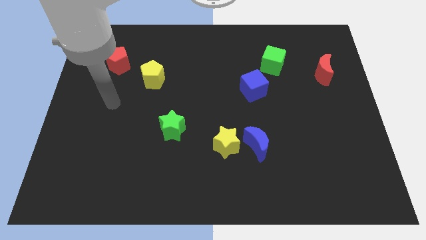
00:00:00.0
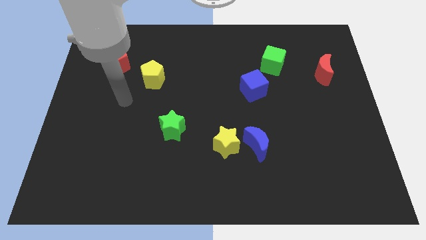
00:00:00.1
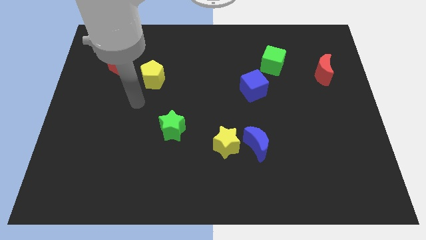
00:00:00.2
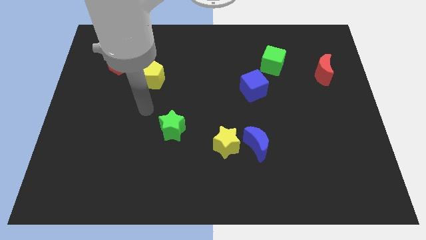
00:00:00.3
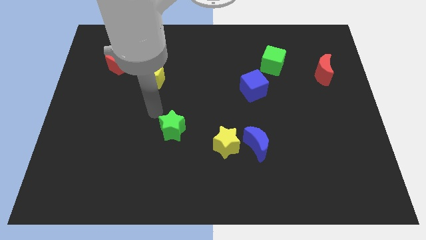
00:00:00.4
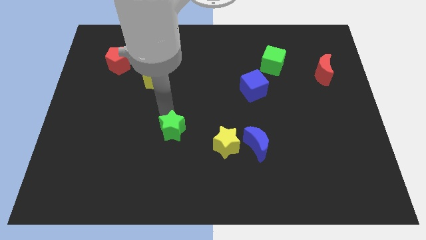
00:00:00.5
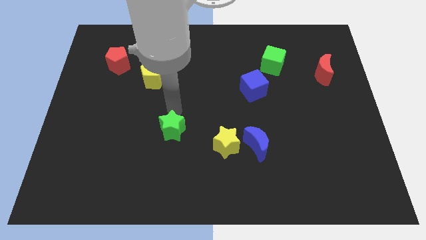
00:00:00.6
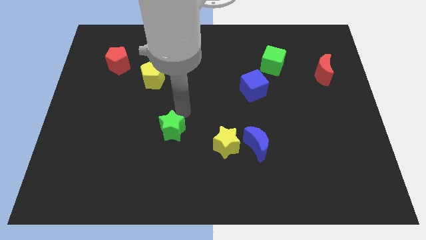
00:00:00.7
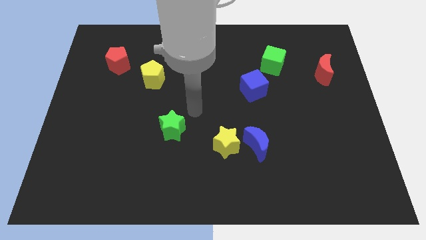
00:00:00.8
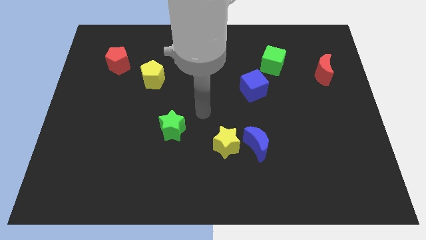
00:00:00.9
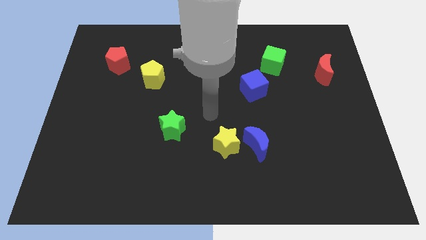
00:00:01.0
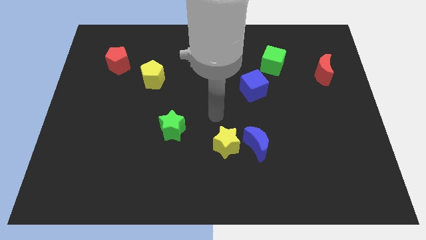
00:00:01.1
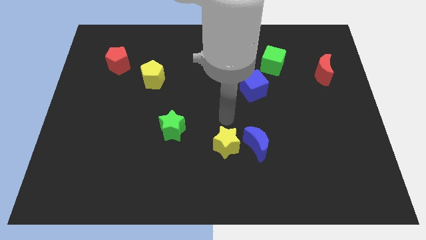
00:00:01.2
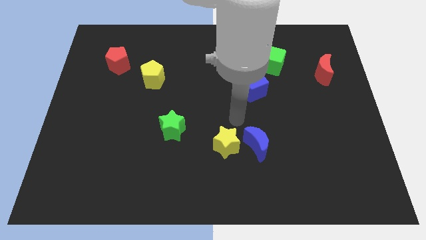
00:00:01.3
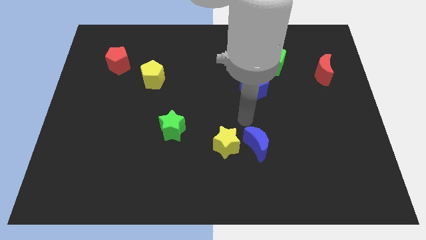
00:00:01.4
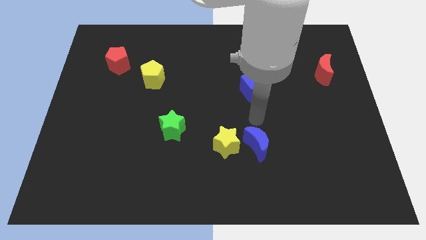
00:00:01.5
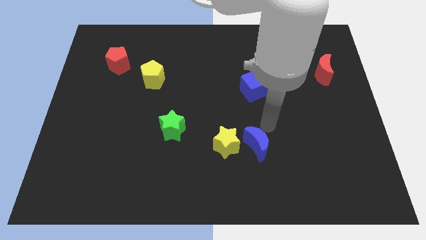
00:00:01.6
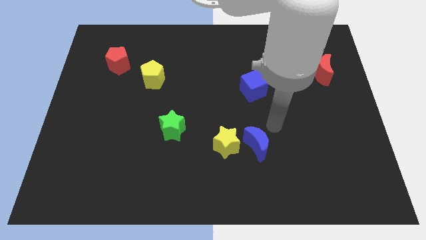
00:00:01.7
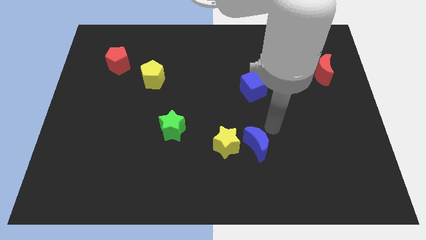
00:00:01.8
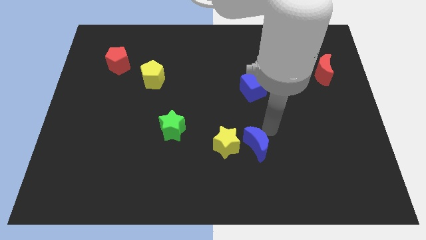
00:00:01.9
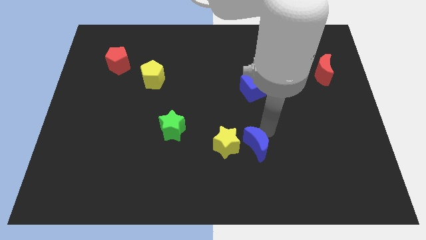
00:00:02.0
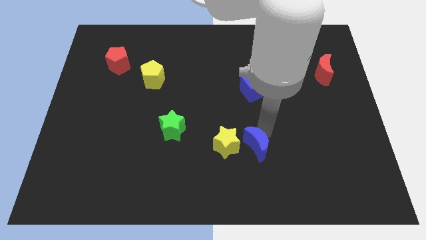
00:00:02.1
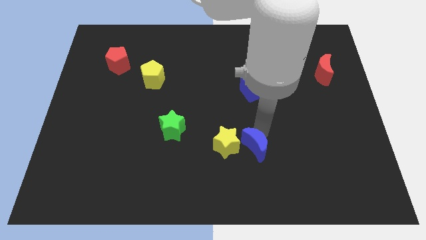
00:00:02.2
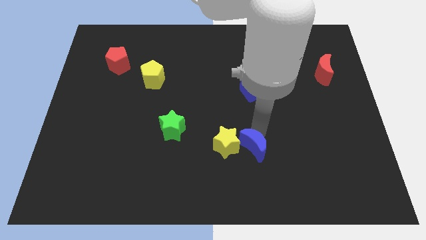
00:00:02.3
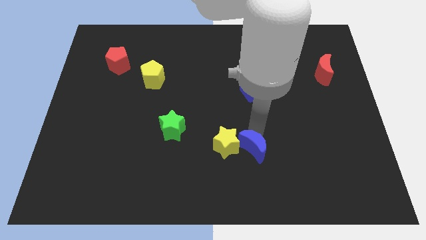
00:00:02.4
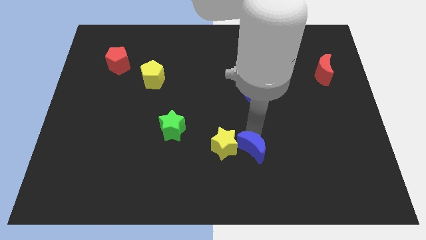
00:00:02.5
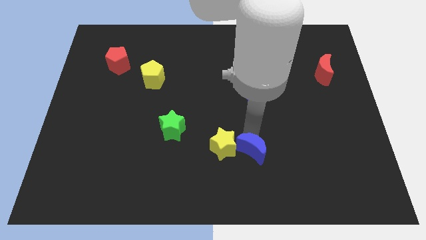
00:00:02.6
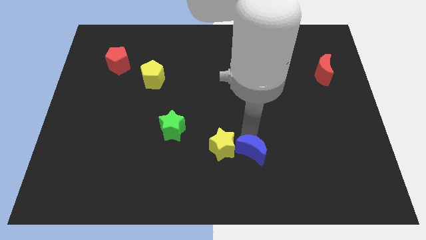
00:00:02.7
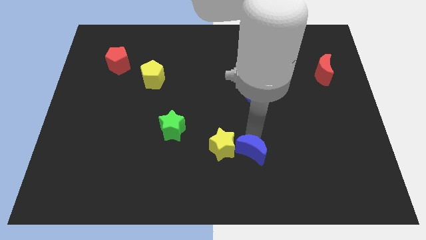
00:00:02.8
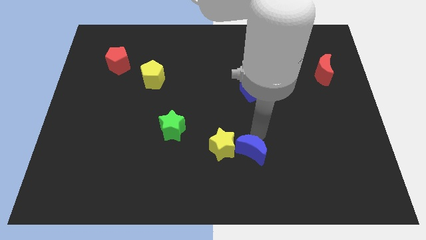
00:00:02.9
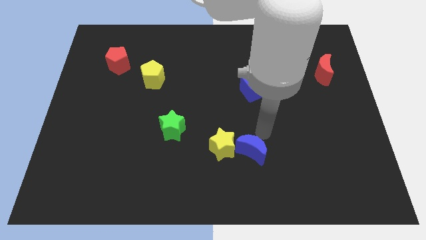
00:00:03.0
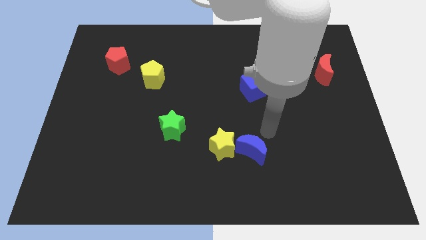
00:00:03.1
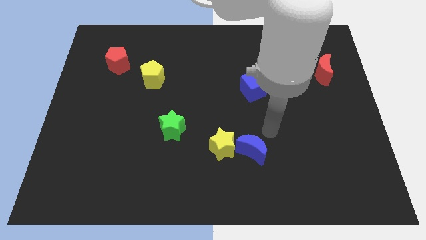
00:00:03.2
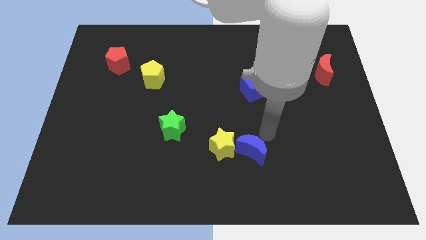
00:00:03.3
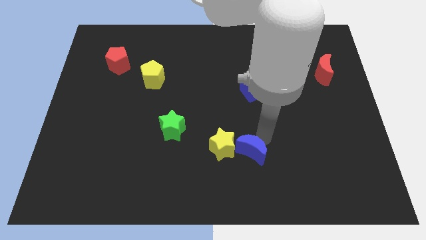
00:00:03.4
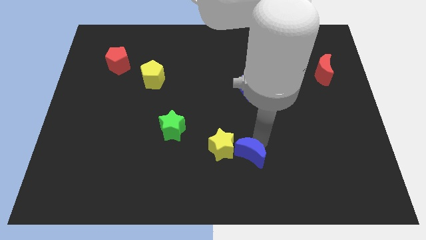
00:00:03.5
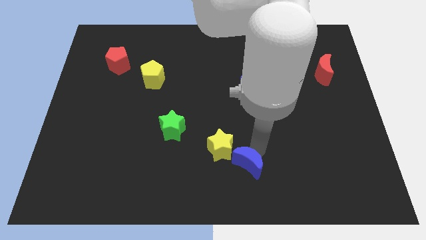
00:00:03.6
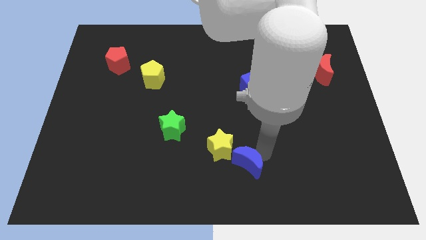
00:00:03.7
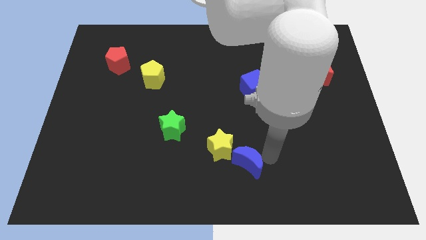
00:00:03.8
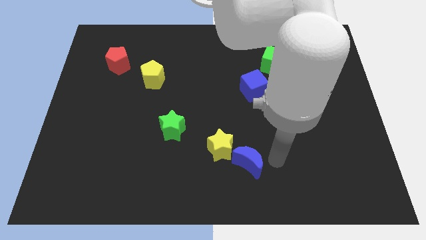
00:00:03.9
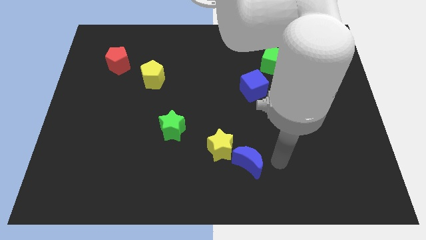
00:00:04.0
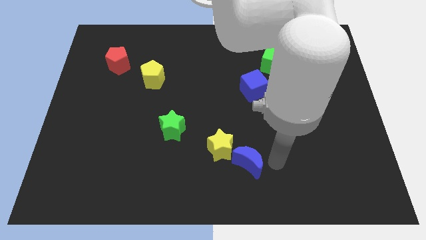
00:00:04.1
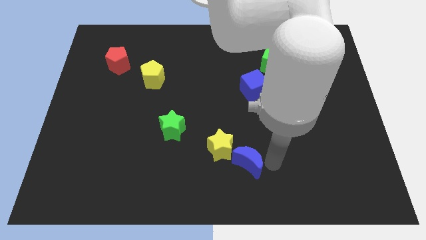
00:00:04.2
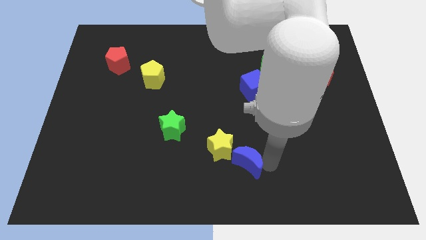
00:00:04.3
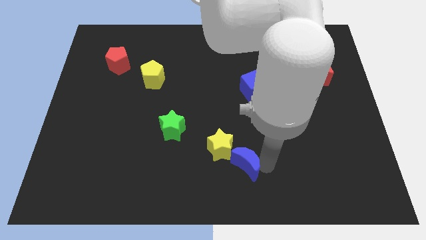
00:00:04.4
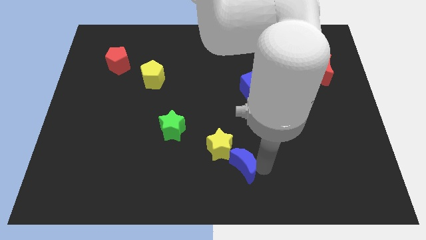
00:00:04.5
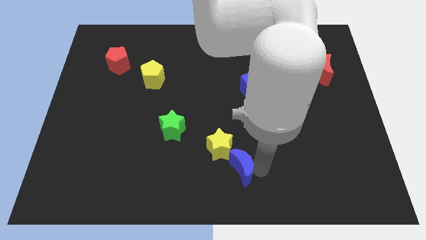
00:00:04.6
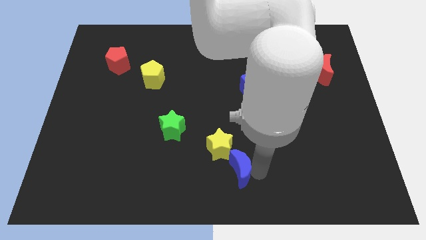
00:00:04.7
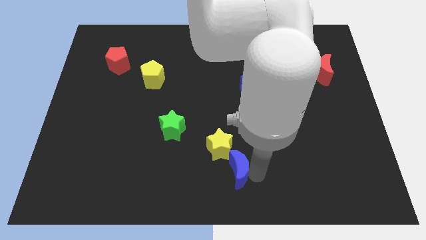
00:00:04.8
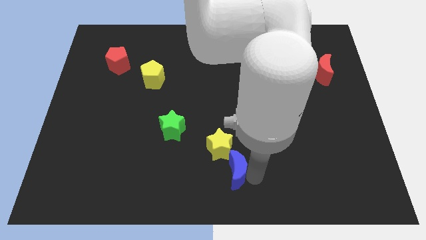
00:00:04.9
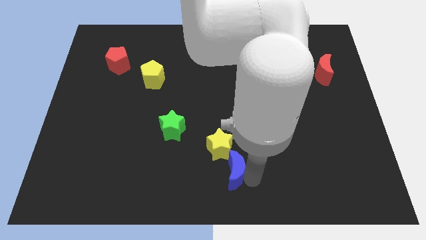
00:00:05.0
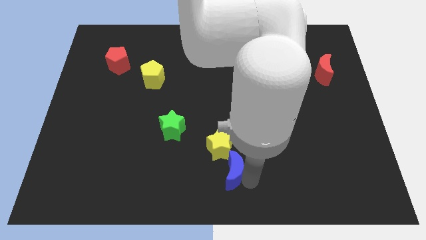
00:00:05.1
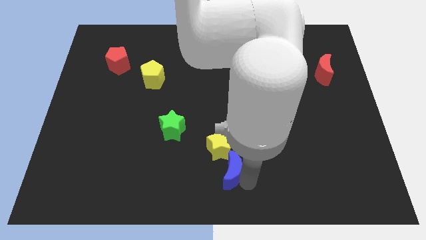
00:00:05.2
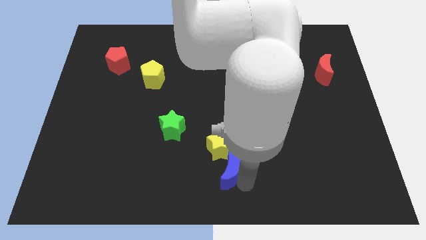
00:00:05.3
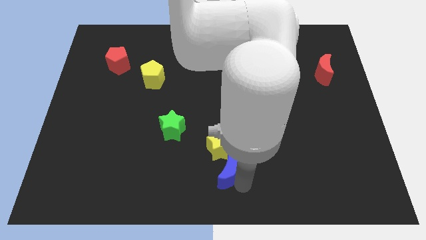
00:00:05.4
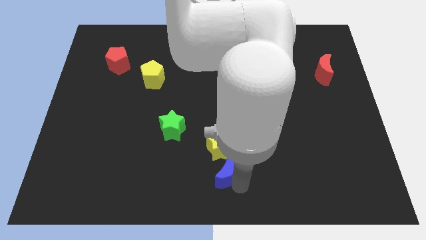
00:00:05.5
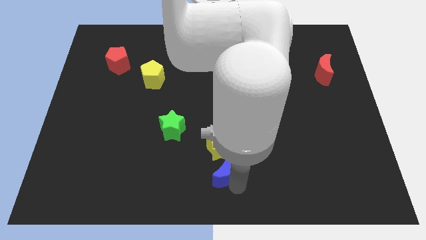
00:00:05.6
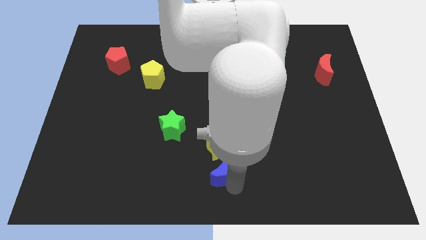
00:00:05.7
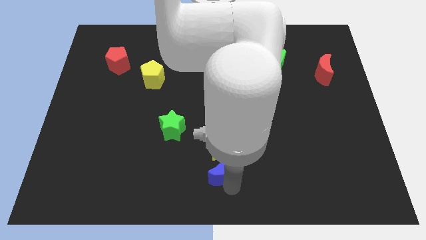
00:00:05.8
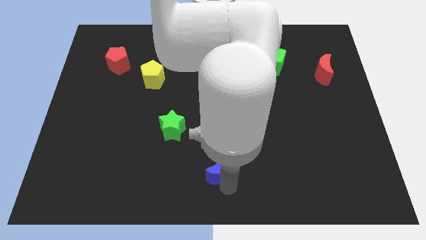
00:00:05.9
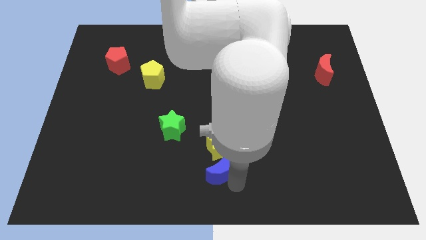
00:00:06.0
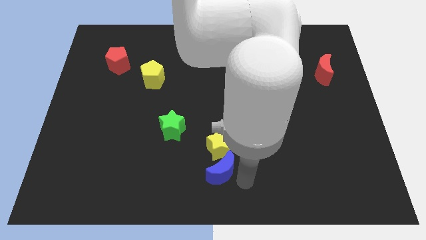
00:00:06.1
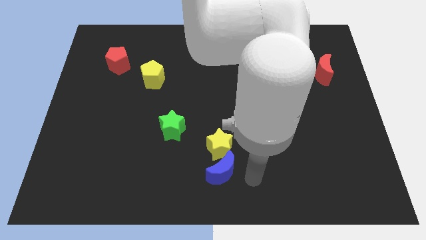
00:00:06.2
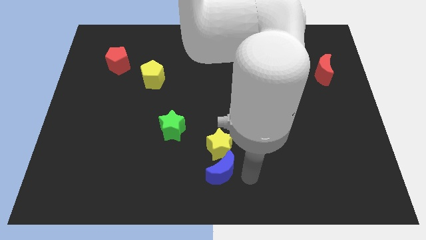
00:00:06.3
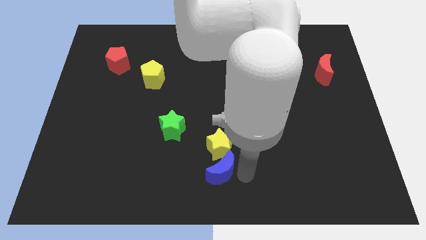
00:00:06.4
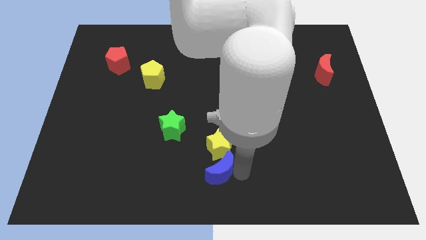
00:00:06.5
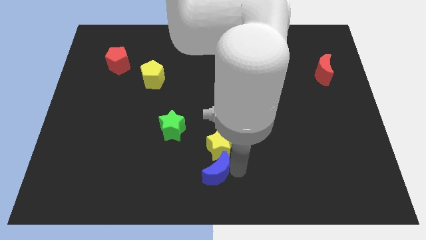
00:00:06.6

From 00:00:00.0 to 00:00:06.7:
push the blue moon left slightly

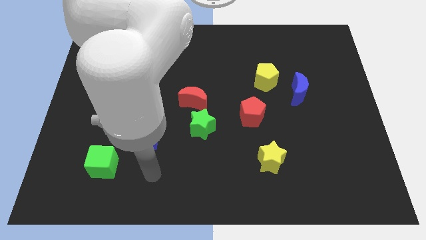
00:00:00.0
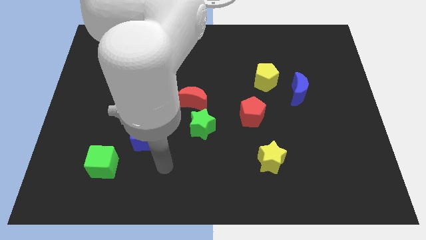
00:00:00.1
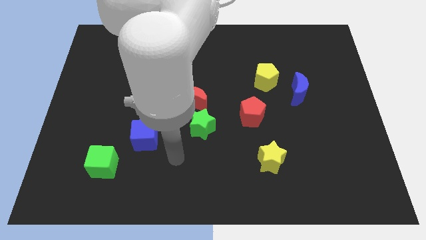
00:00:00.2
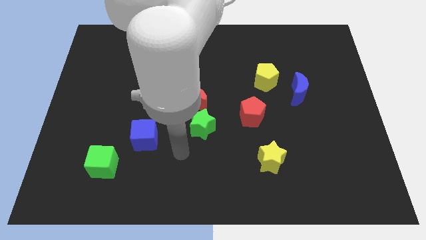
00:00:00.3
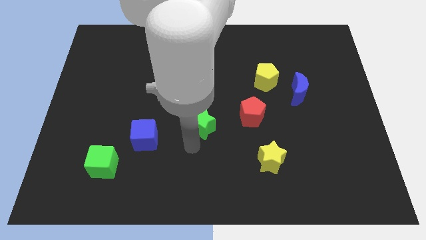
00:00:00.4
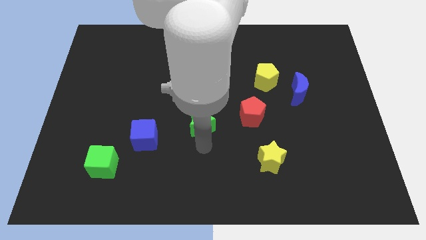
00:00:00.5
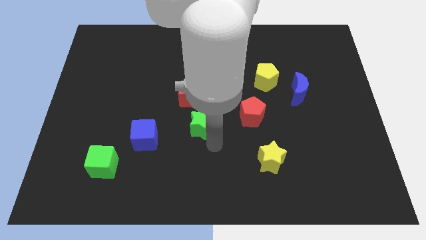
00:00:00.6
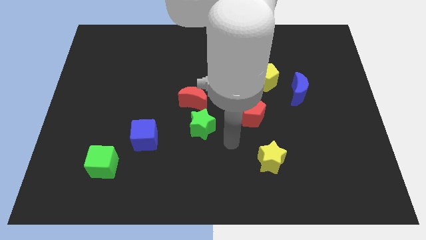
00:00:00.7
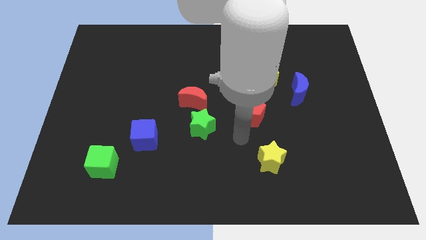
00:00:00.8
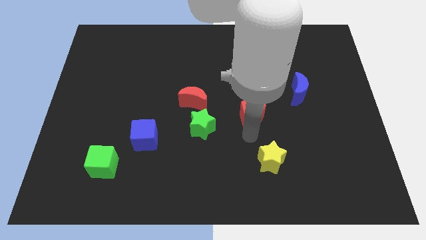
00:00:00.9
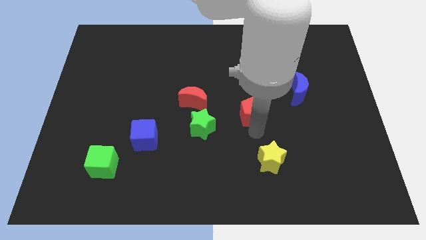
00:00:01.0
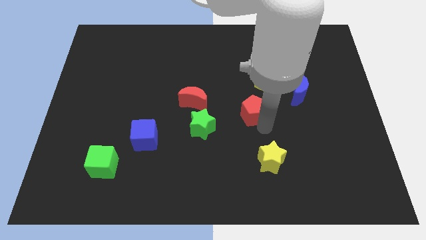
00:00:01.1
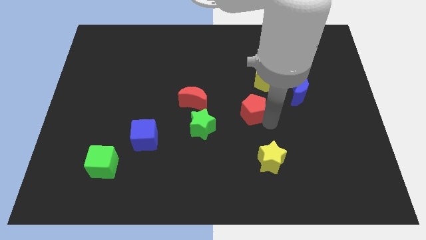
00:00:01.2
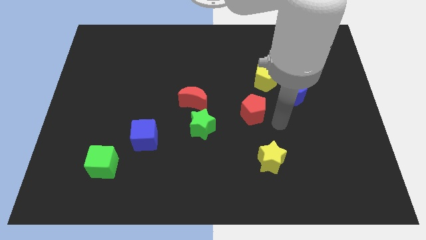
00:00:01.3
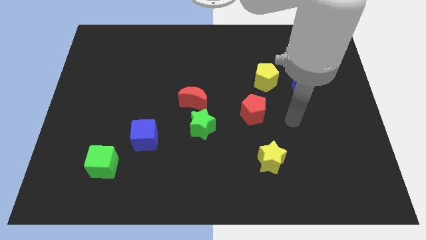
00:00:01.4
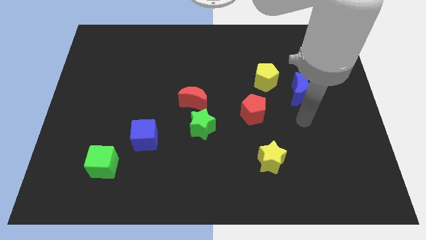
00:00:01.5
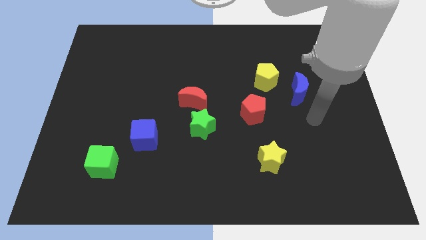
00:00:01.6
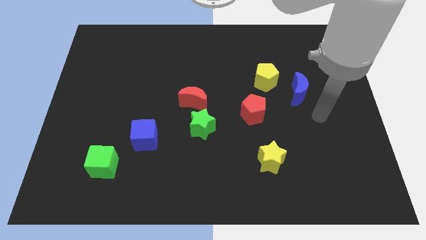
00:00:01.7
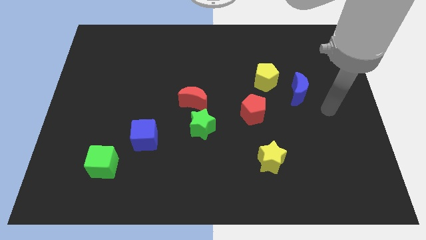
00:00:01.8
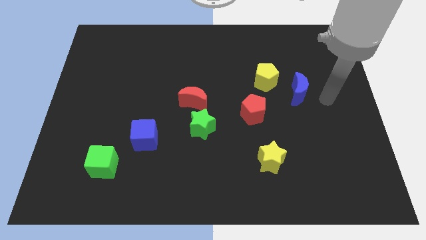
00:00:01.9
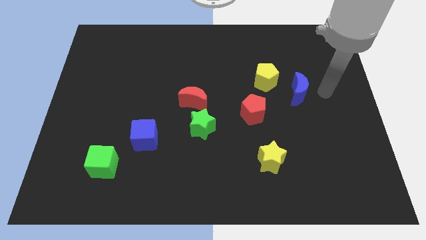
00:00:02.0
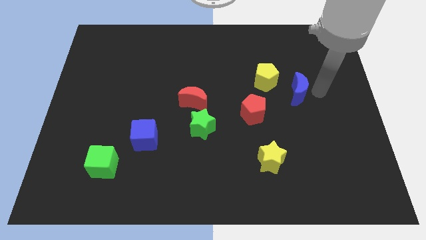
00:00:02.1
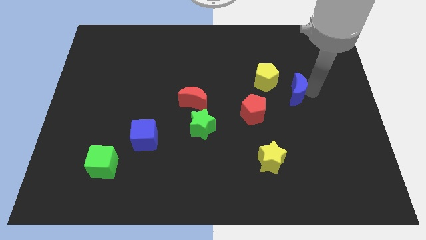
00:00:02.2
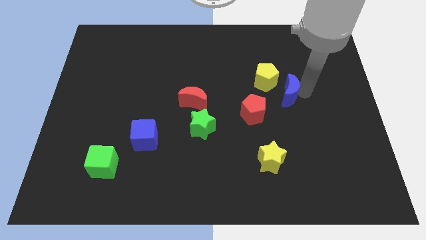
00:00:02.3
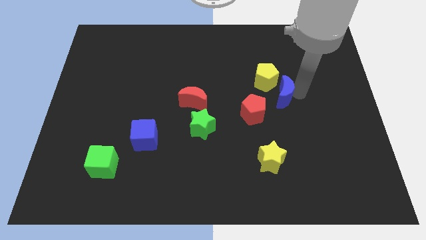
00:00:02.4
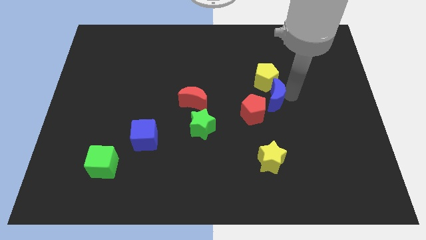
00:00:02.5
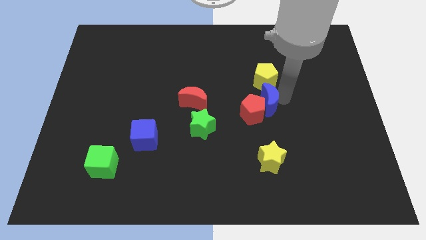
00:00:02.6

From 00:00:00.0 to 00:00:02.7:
push the blue moon to the left slightly
